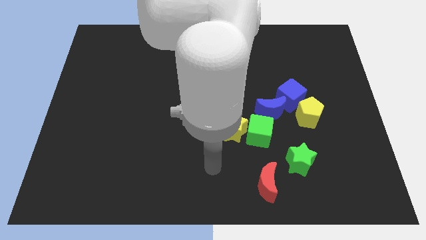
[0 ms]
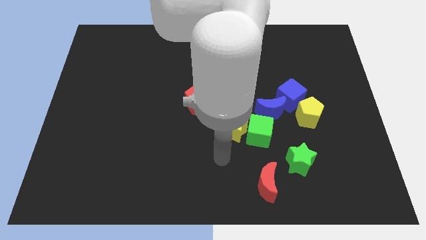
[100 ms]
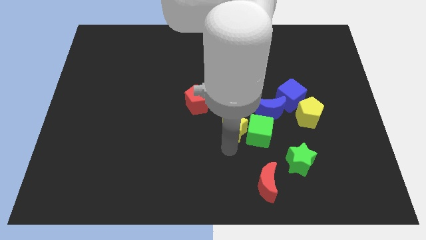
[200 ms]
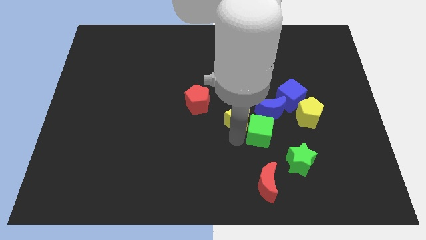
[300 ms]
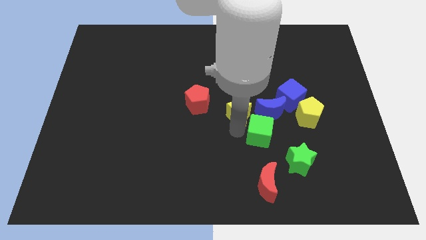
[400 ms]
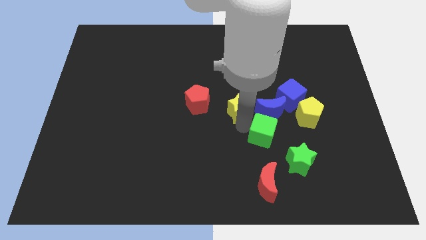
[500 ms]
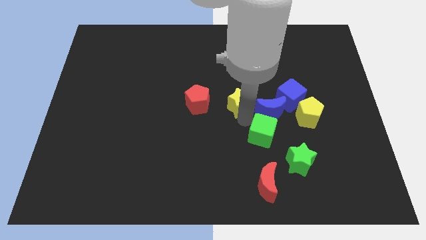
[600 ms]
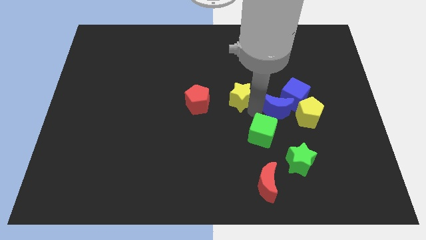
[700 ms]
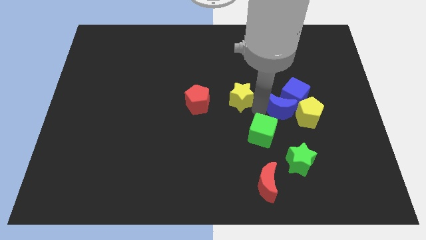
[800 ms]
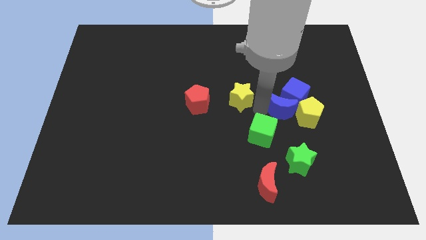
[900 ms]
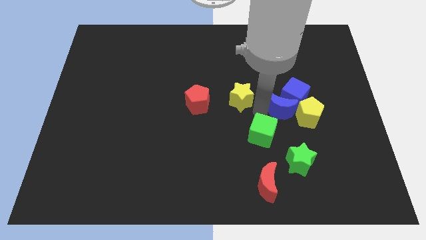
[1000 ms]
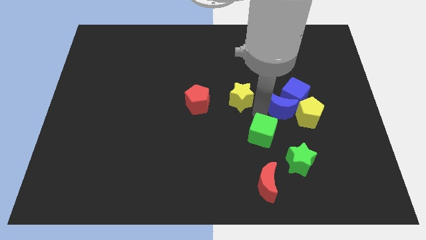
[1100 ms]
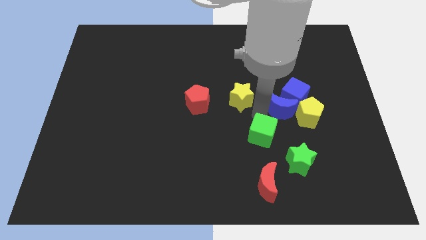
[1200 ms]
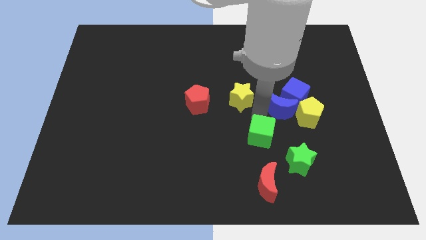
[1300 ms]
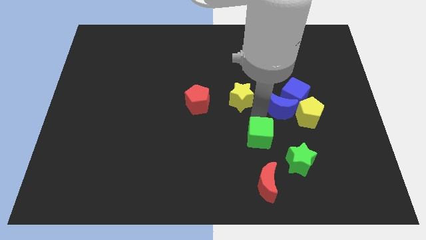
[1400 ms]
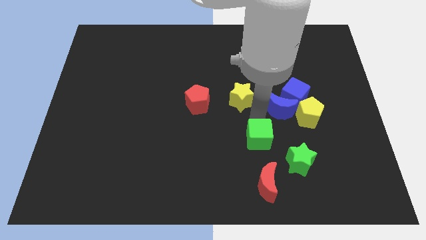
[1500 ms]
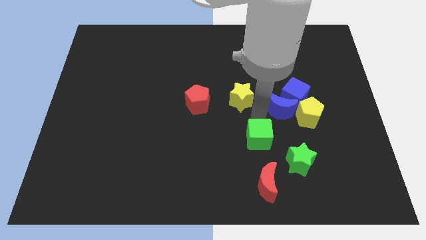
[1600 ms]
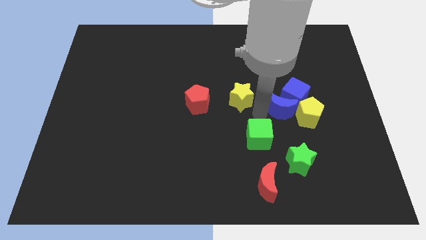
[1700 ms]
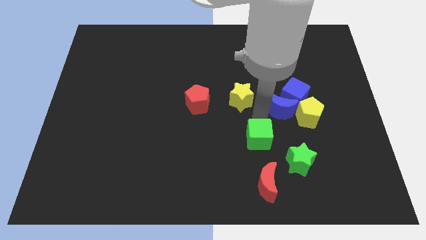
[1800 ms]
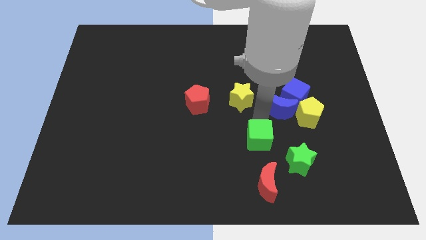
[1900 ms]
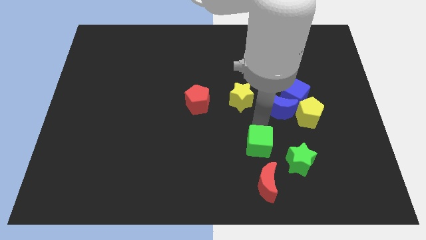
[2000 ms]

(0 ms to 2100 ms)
move the green cube away from the yellow star and blue moon

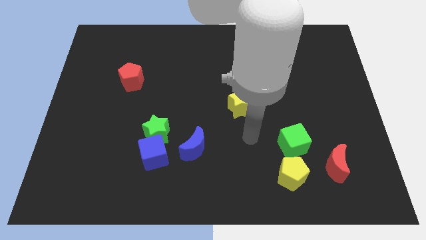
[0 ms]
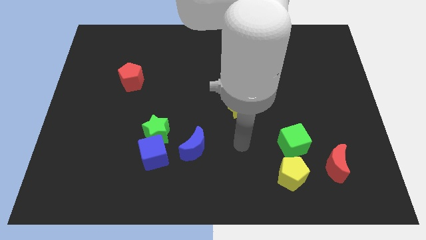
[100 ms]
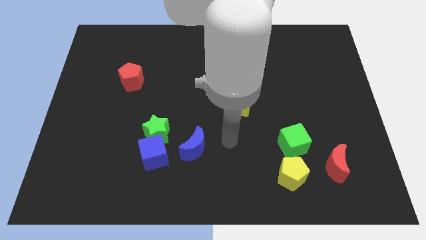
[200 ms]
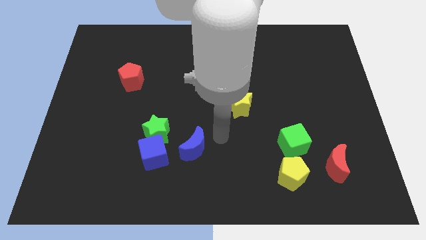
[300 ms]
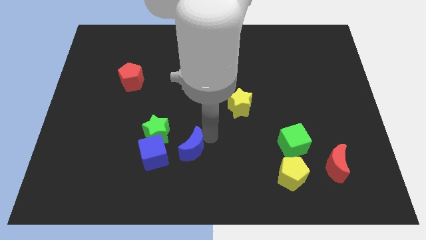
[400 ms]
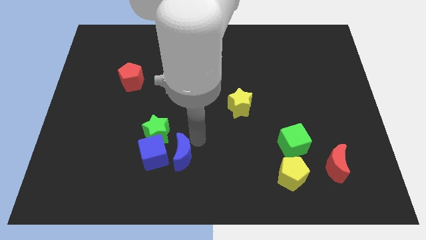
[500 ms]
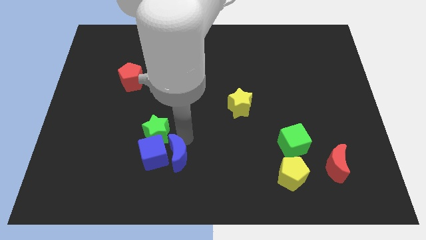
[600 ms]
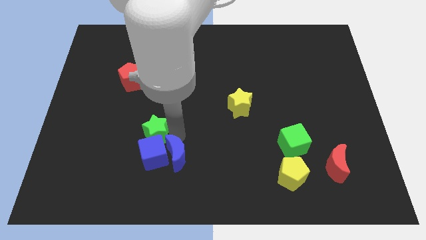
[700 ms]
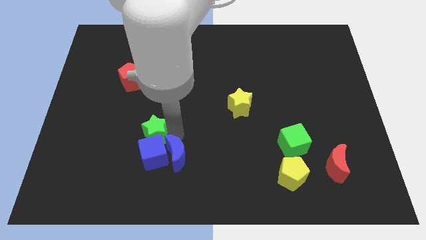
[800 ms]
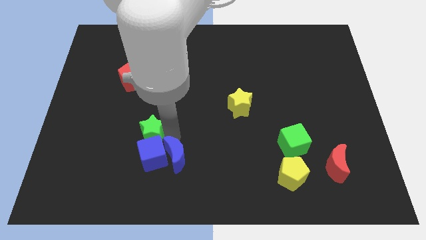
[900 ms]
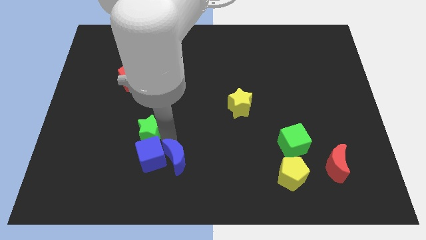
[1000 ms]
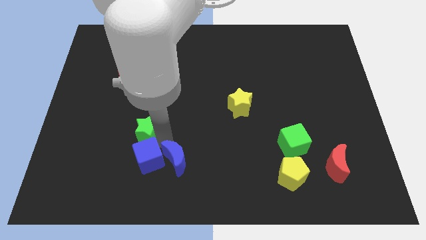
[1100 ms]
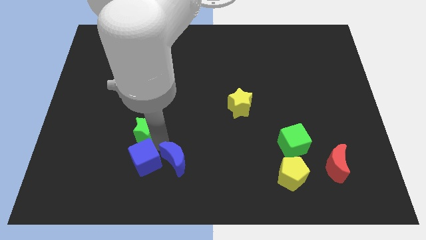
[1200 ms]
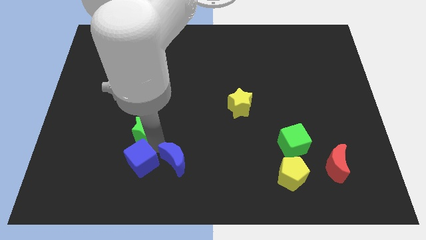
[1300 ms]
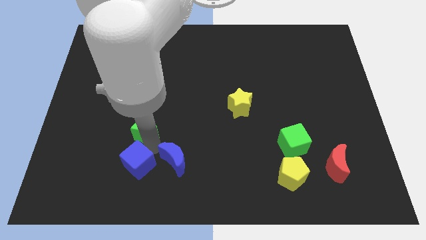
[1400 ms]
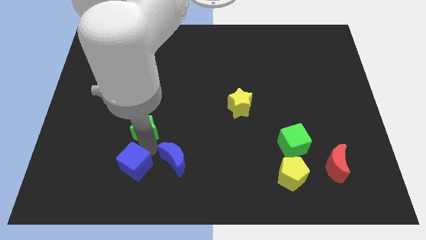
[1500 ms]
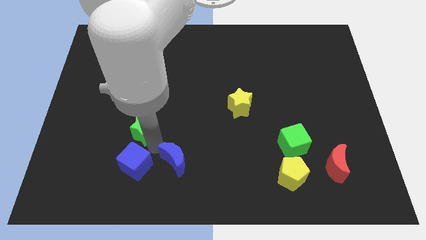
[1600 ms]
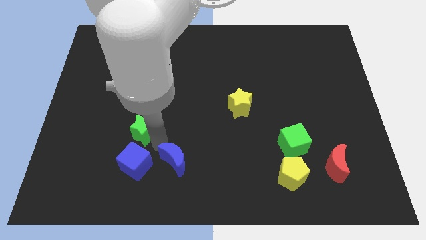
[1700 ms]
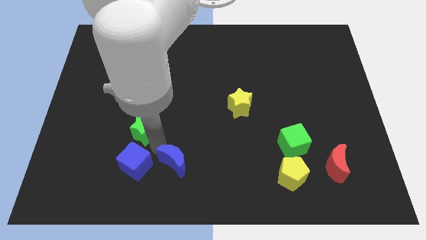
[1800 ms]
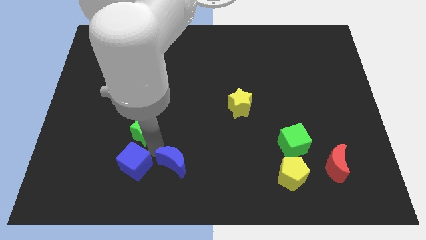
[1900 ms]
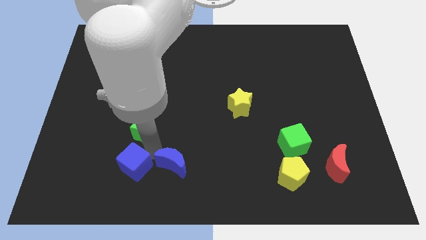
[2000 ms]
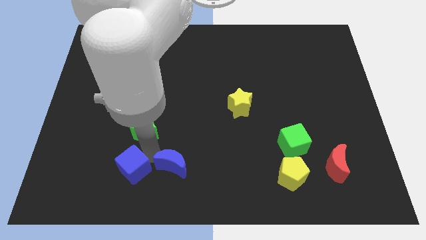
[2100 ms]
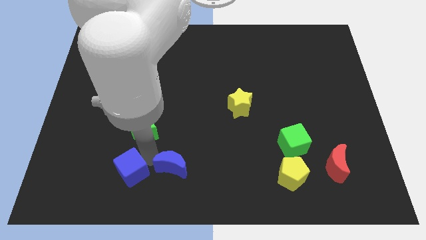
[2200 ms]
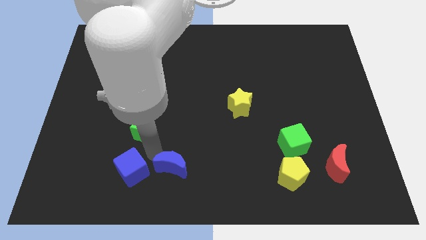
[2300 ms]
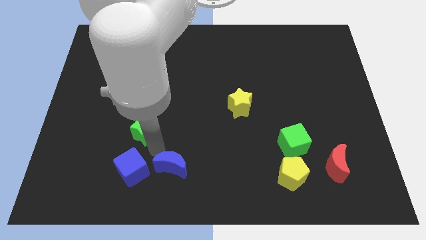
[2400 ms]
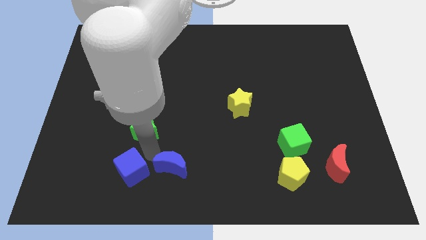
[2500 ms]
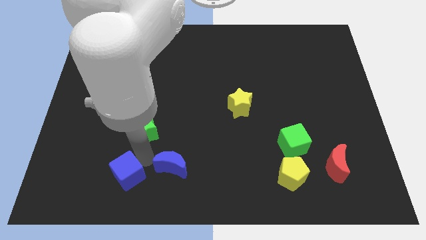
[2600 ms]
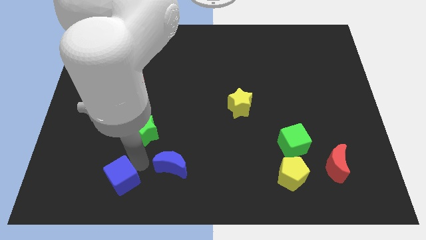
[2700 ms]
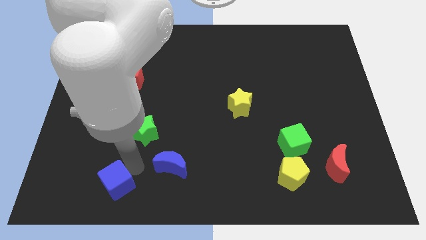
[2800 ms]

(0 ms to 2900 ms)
separate the blue cube from the green star and blue moon

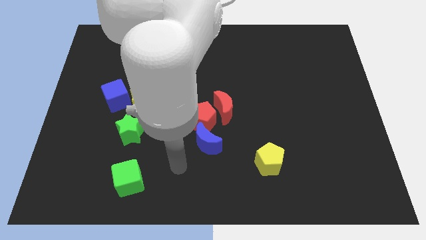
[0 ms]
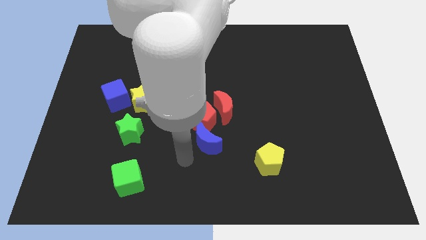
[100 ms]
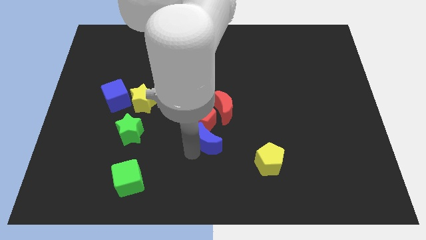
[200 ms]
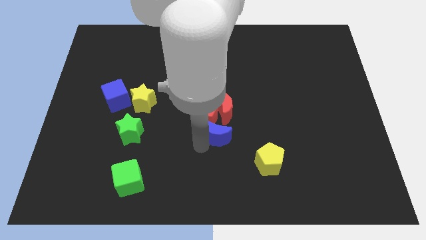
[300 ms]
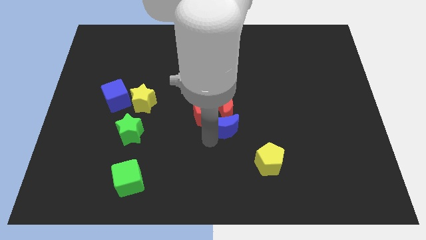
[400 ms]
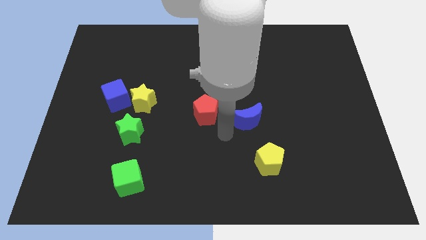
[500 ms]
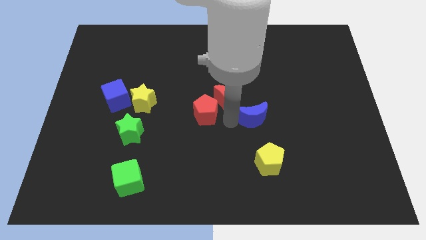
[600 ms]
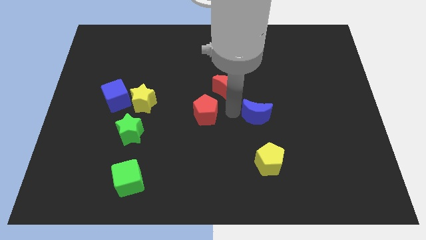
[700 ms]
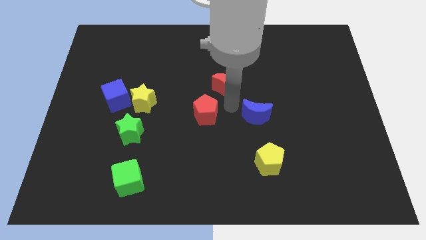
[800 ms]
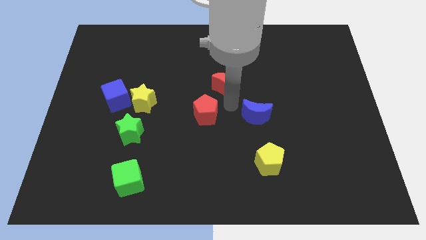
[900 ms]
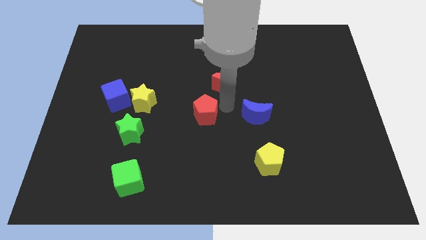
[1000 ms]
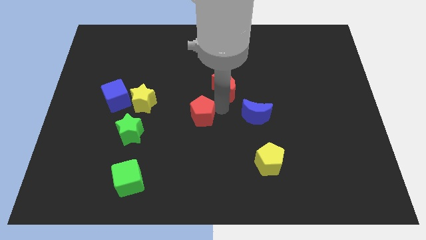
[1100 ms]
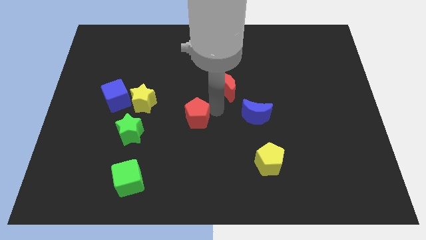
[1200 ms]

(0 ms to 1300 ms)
pull the red pentagon apart from the red moon and blue moon

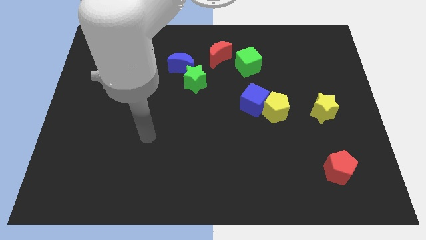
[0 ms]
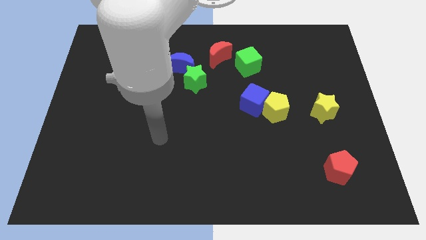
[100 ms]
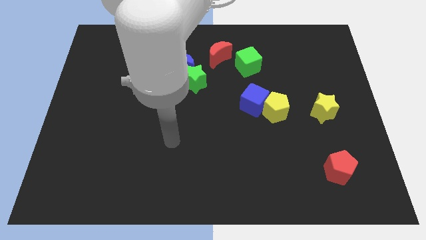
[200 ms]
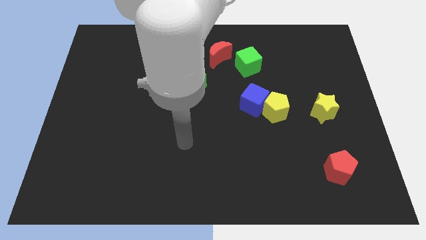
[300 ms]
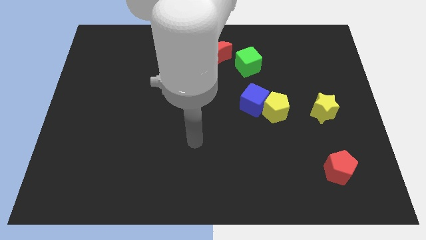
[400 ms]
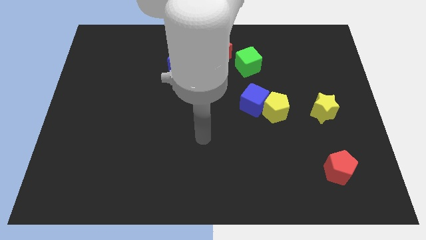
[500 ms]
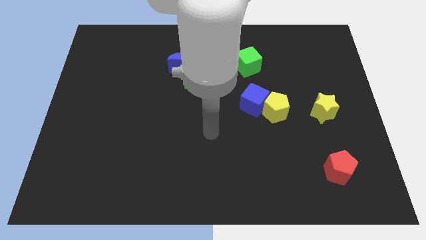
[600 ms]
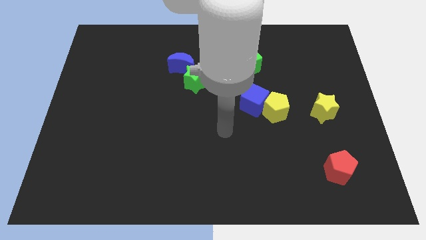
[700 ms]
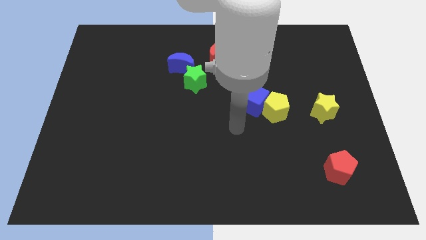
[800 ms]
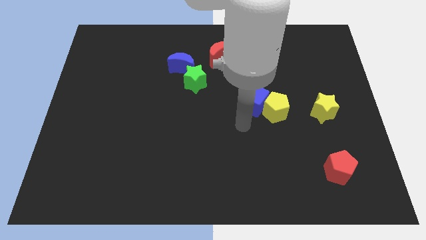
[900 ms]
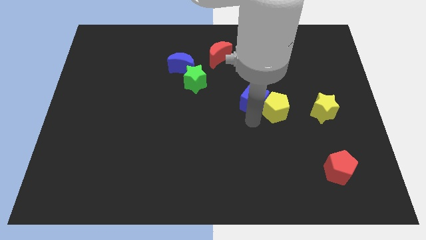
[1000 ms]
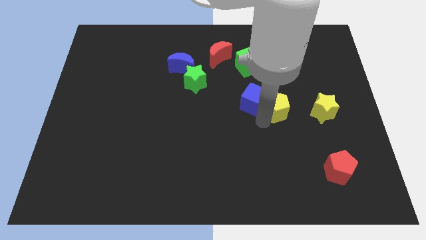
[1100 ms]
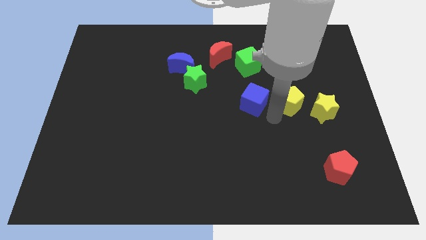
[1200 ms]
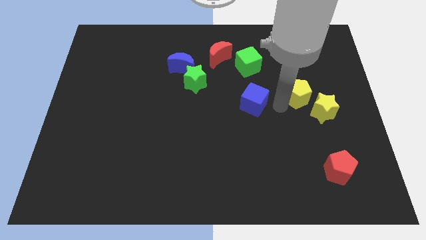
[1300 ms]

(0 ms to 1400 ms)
pull the blue cube apart from the yellow pentagon

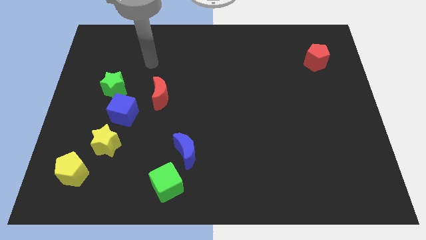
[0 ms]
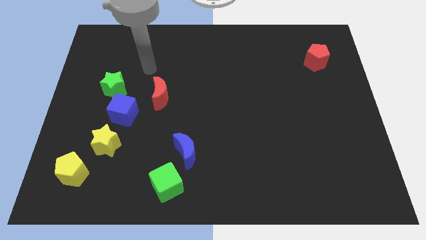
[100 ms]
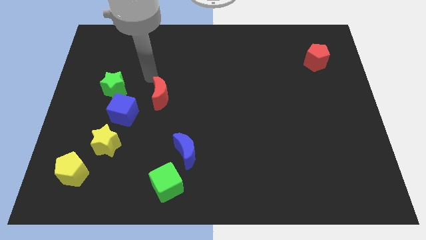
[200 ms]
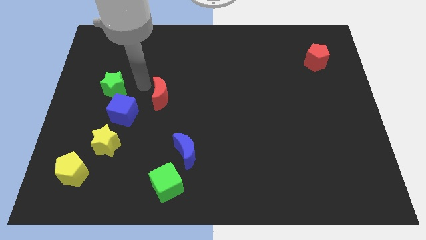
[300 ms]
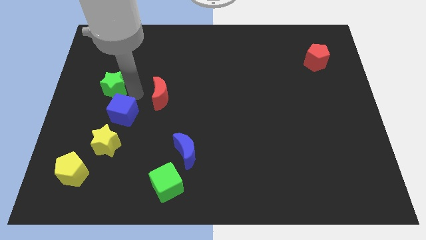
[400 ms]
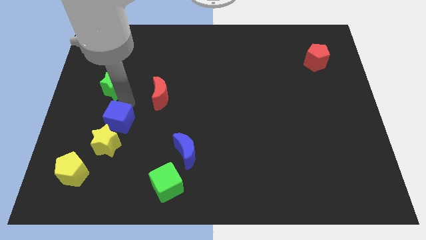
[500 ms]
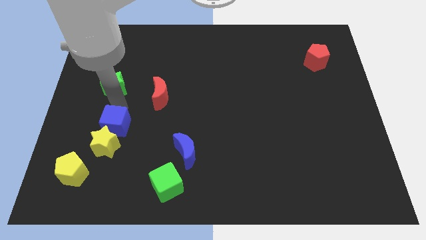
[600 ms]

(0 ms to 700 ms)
pull the green star apart from the blue cube

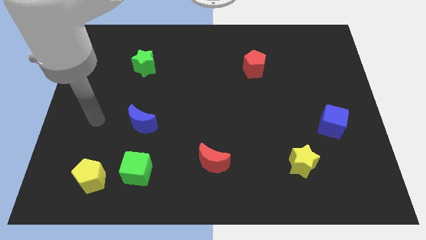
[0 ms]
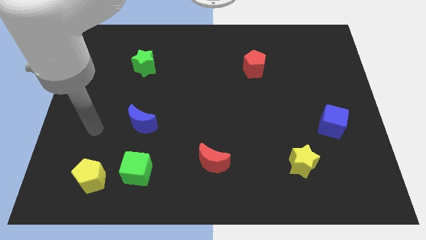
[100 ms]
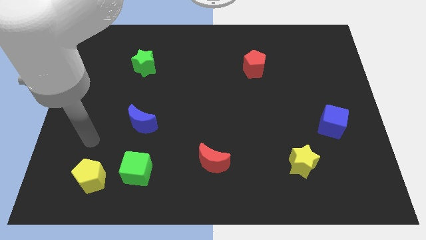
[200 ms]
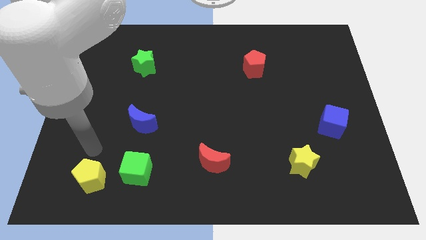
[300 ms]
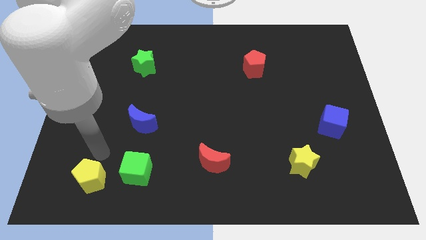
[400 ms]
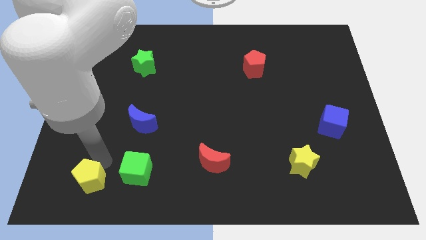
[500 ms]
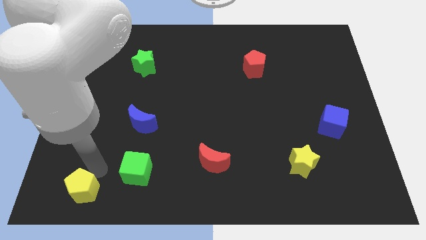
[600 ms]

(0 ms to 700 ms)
separate the green cube from the yellow pentagon
